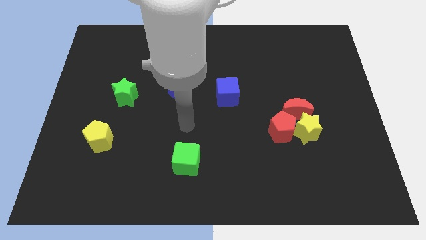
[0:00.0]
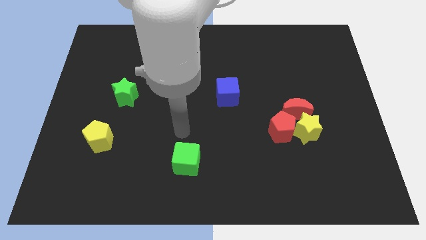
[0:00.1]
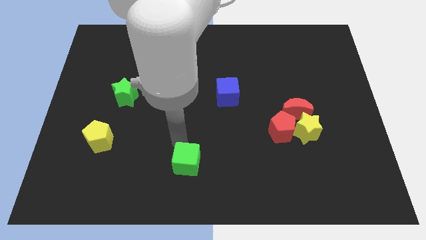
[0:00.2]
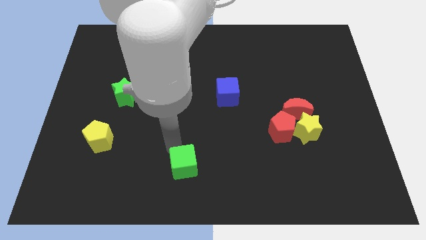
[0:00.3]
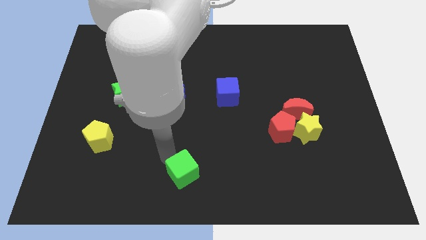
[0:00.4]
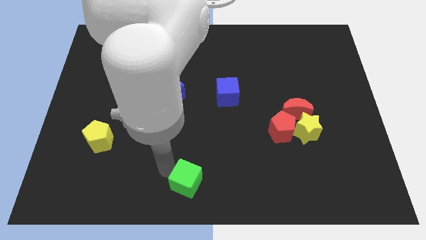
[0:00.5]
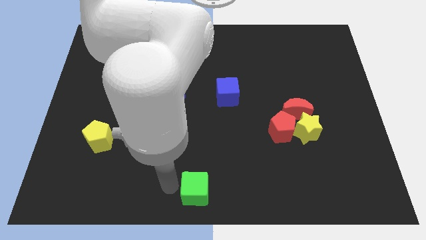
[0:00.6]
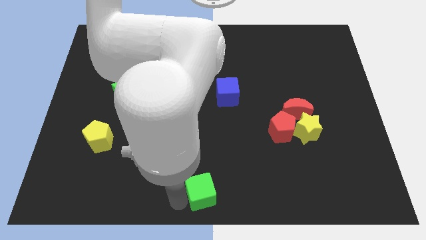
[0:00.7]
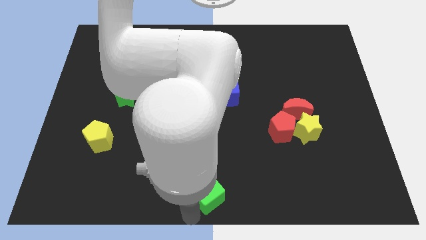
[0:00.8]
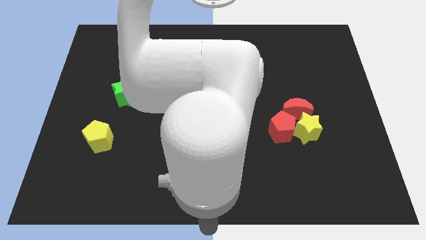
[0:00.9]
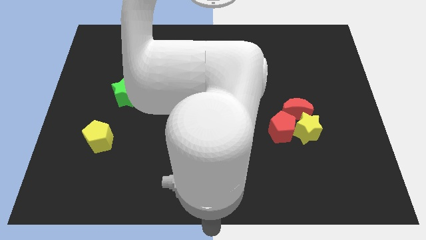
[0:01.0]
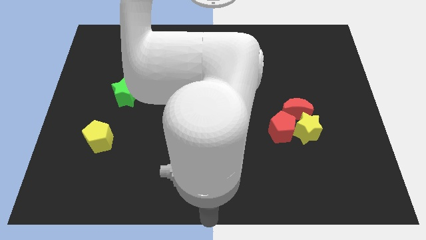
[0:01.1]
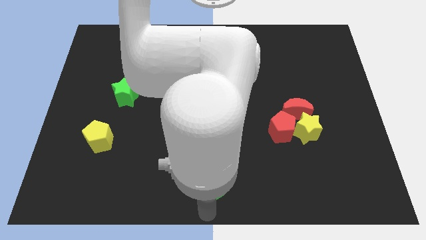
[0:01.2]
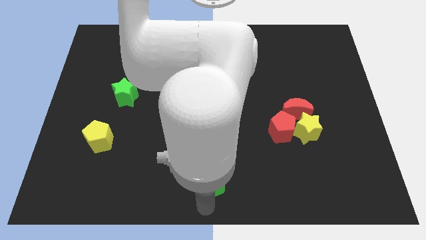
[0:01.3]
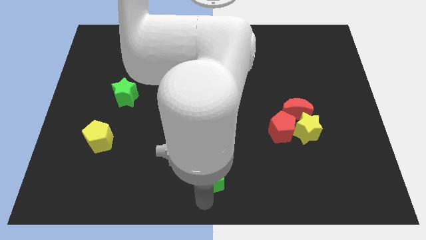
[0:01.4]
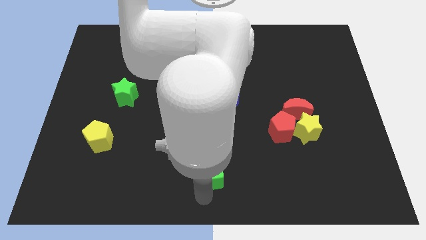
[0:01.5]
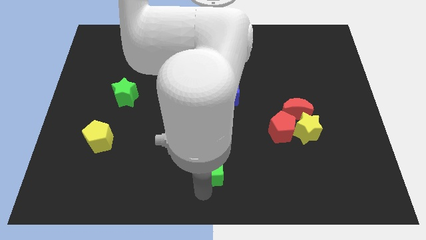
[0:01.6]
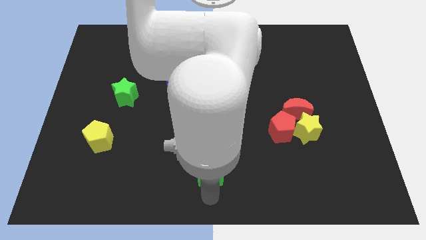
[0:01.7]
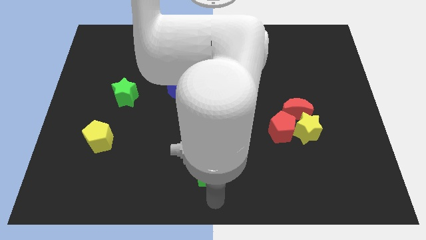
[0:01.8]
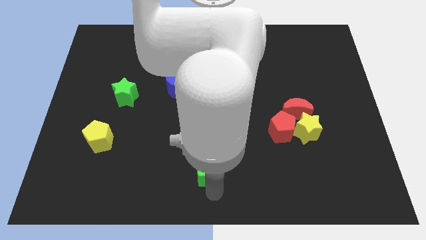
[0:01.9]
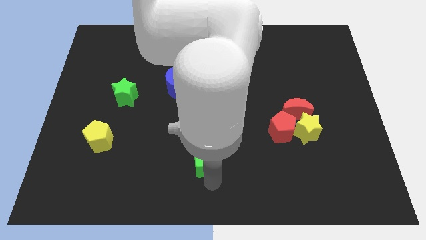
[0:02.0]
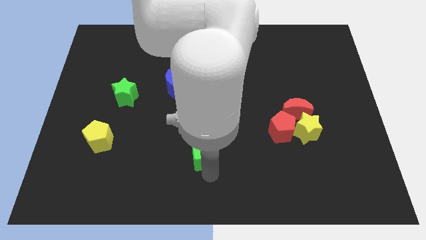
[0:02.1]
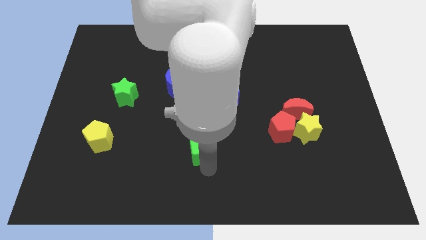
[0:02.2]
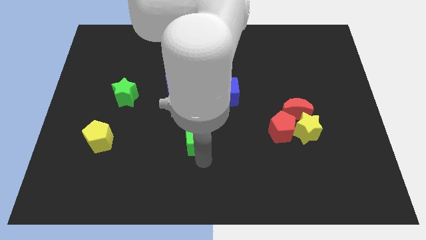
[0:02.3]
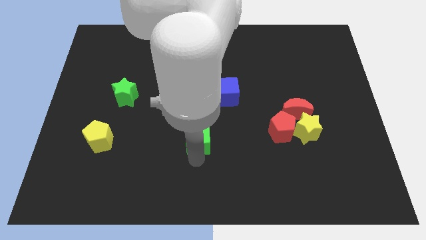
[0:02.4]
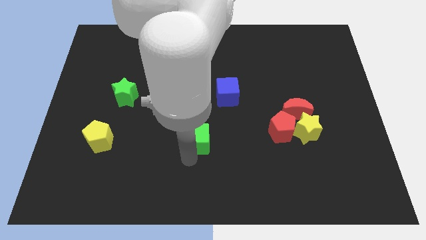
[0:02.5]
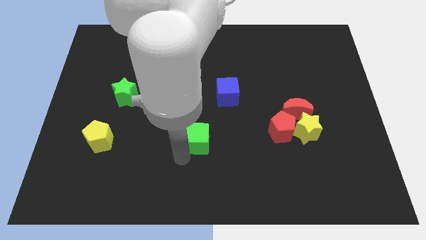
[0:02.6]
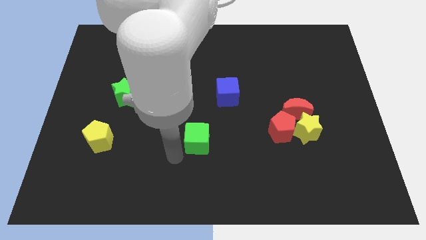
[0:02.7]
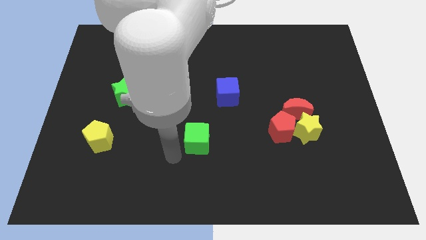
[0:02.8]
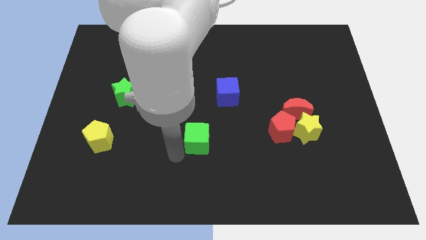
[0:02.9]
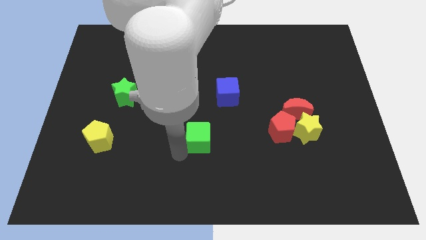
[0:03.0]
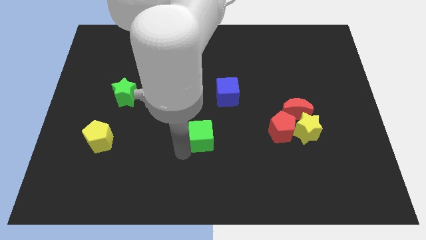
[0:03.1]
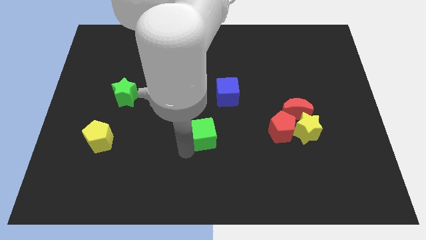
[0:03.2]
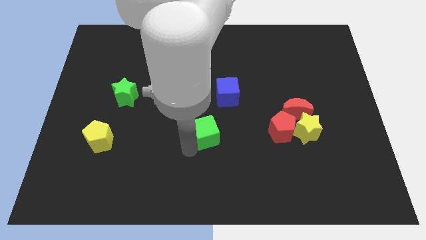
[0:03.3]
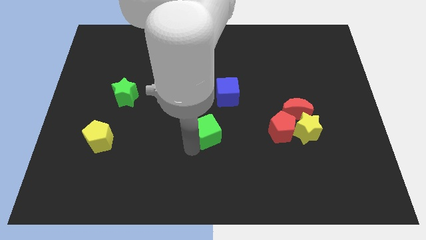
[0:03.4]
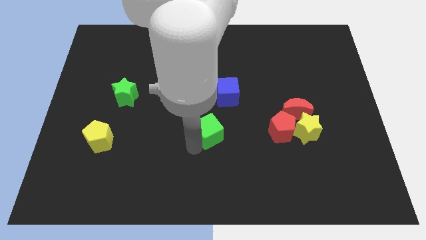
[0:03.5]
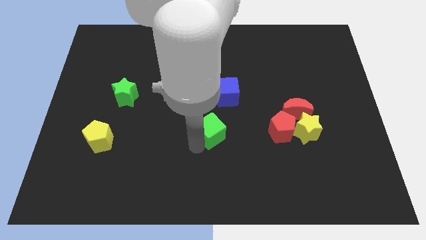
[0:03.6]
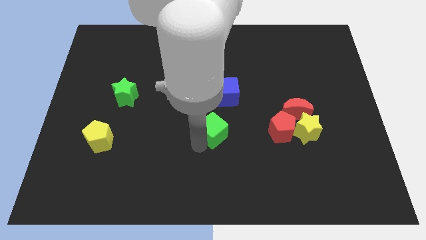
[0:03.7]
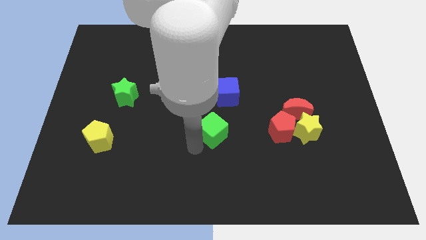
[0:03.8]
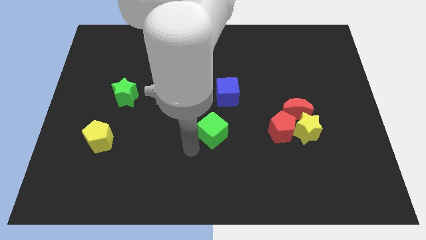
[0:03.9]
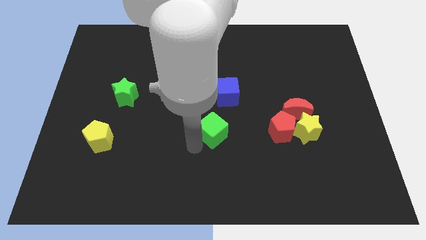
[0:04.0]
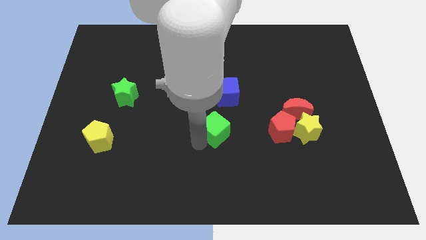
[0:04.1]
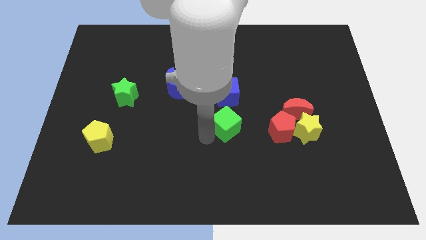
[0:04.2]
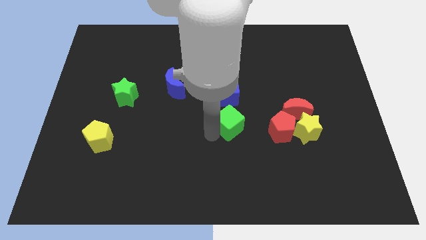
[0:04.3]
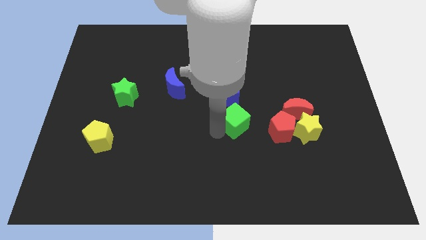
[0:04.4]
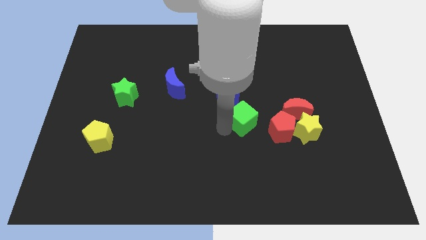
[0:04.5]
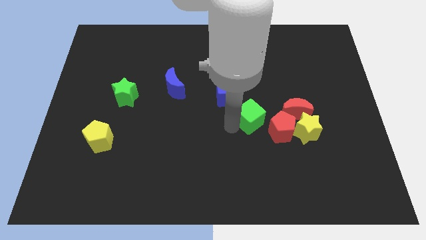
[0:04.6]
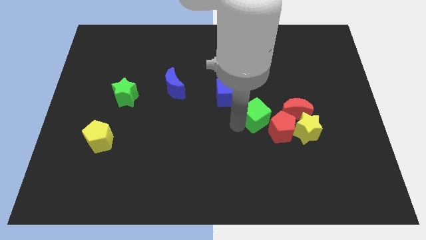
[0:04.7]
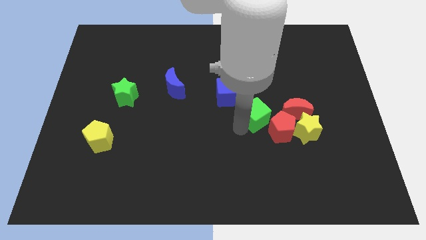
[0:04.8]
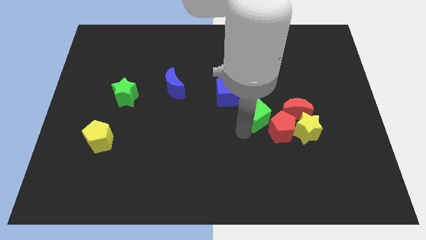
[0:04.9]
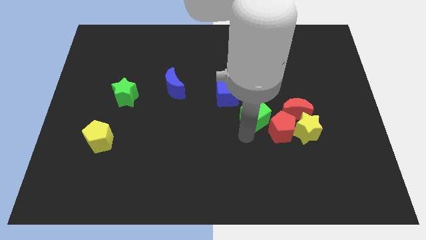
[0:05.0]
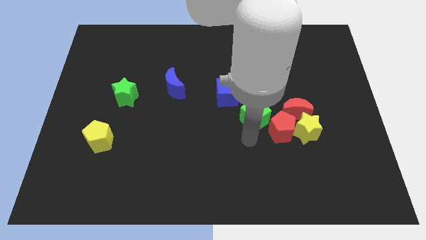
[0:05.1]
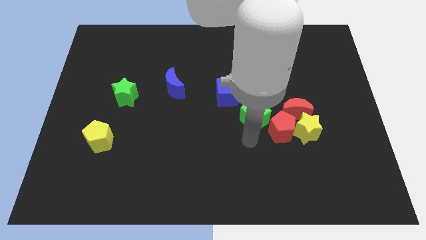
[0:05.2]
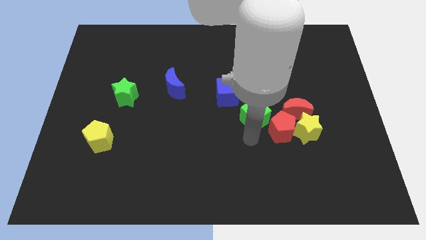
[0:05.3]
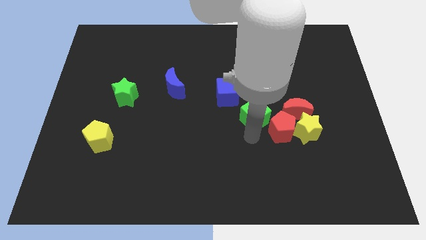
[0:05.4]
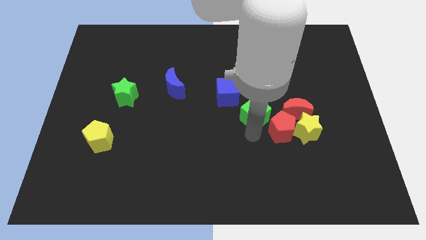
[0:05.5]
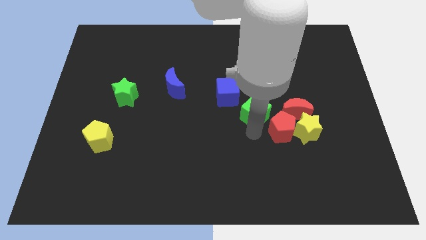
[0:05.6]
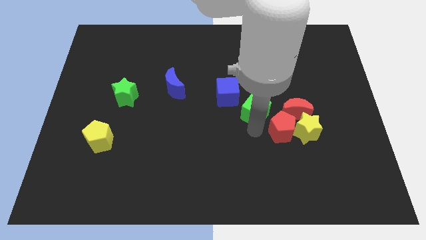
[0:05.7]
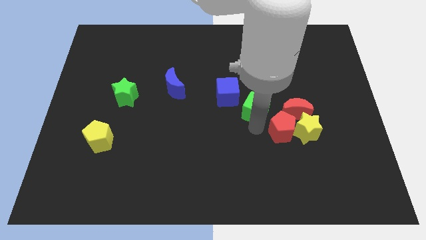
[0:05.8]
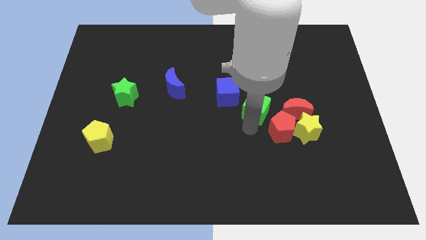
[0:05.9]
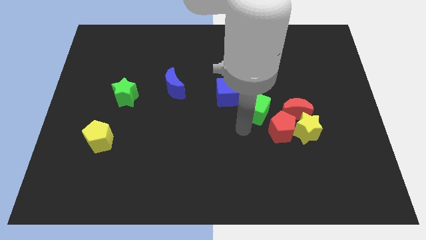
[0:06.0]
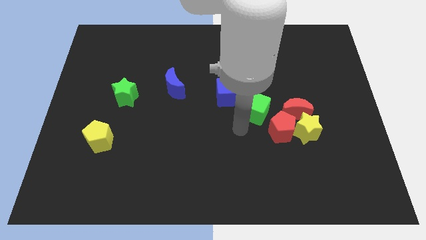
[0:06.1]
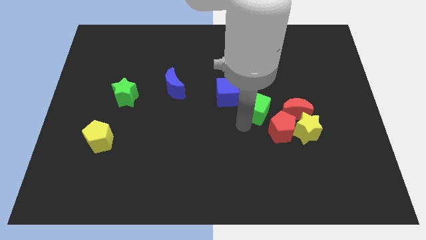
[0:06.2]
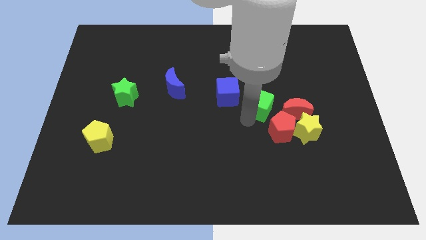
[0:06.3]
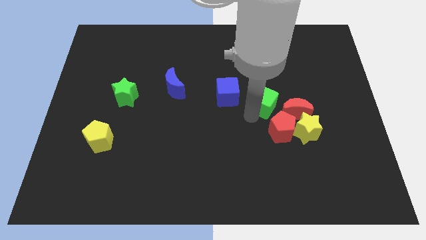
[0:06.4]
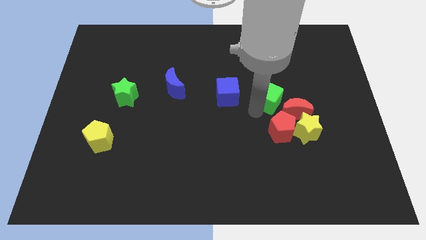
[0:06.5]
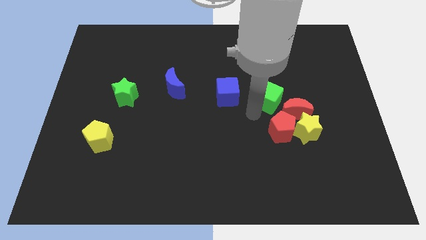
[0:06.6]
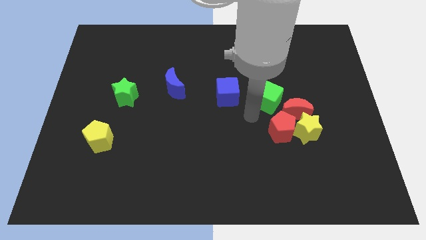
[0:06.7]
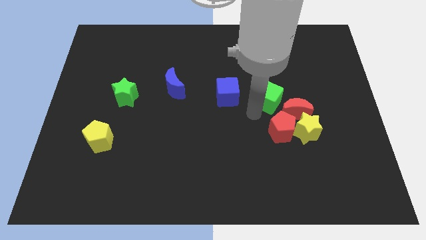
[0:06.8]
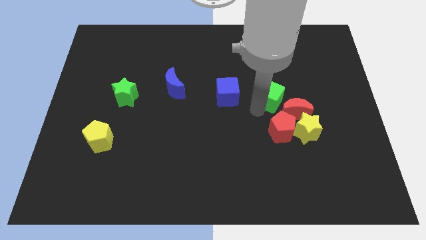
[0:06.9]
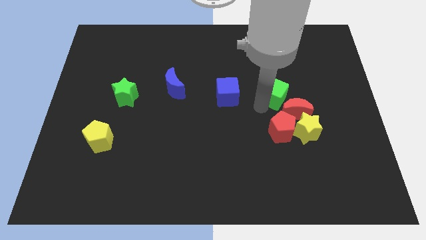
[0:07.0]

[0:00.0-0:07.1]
slide the green cube above the red moon
